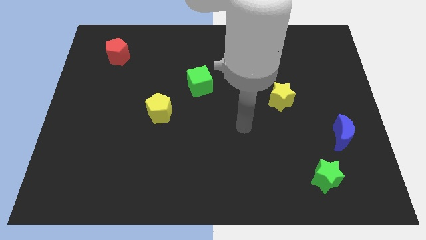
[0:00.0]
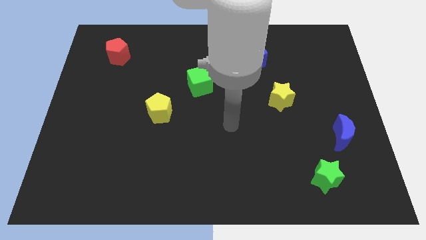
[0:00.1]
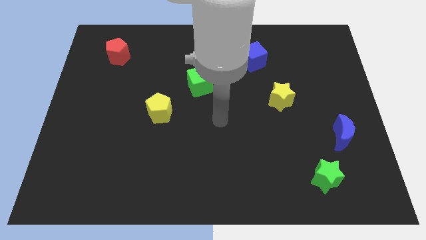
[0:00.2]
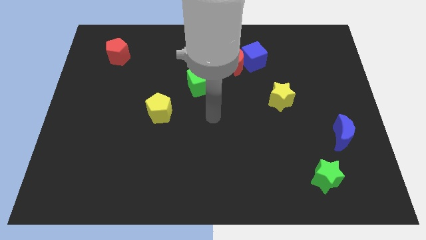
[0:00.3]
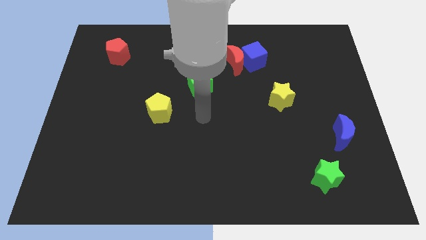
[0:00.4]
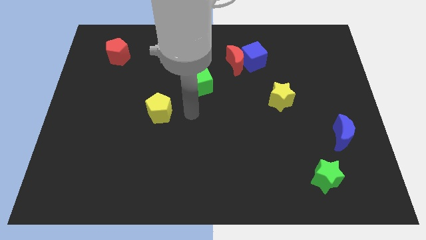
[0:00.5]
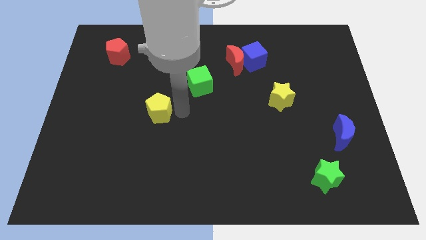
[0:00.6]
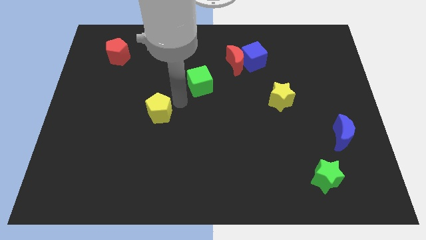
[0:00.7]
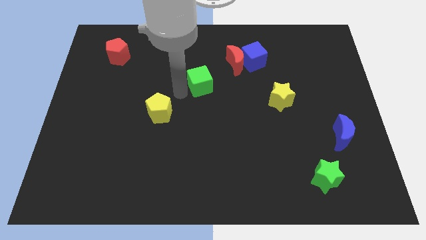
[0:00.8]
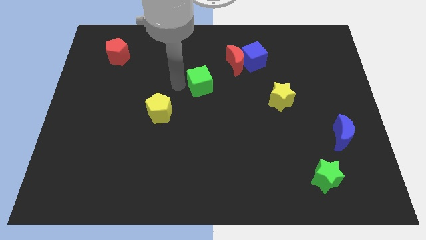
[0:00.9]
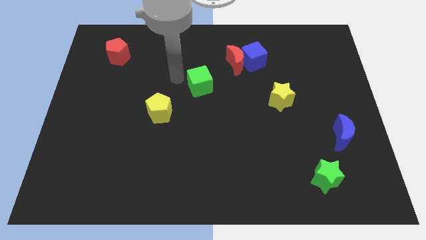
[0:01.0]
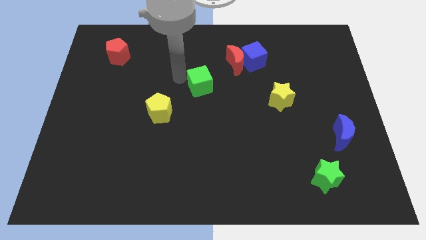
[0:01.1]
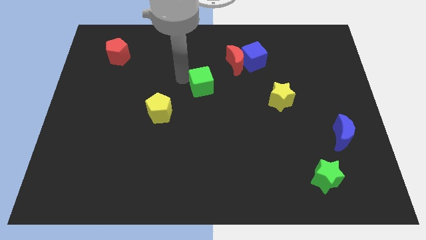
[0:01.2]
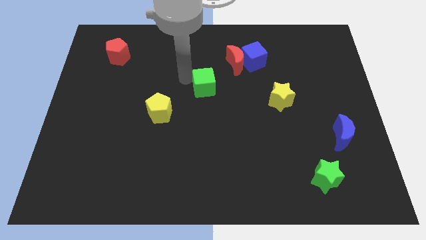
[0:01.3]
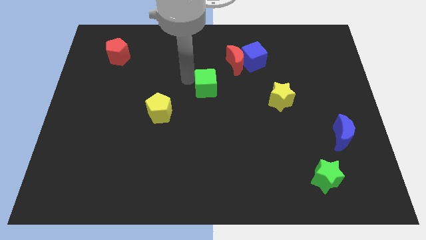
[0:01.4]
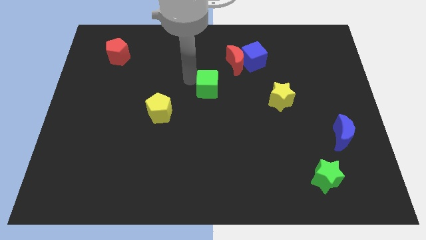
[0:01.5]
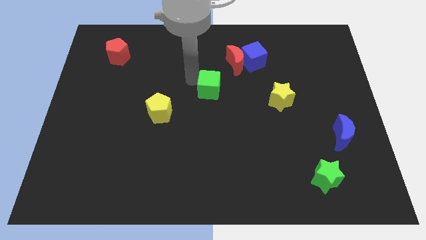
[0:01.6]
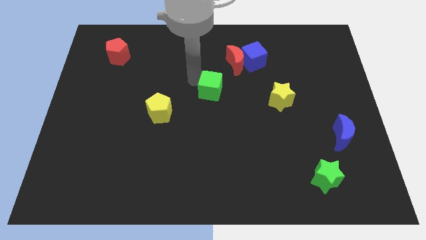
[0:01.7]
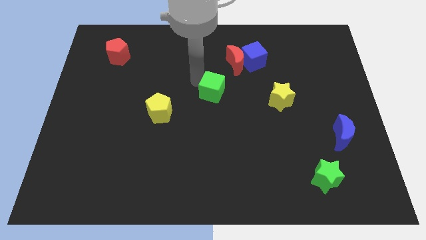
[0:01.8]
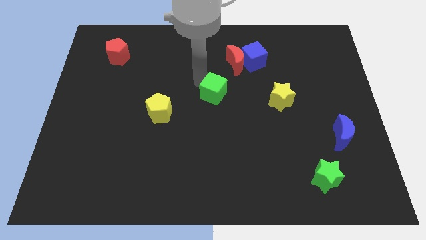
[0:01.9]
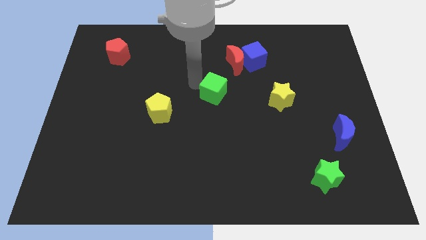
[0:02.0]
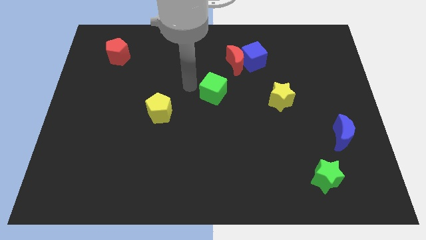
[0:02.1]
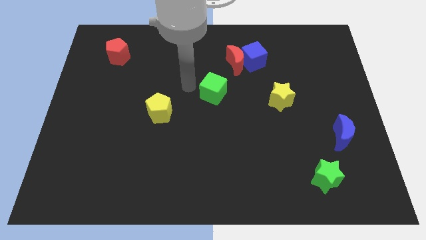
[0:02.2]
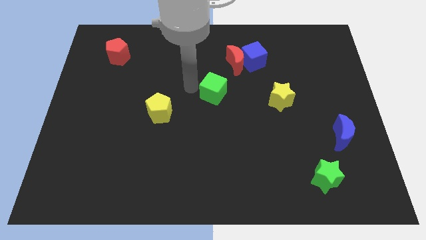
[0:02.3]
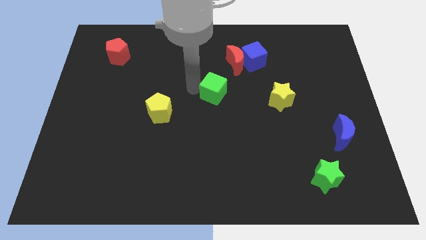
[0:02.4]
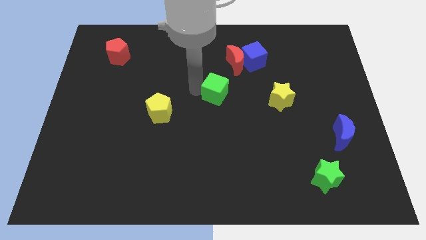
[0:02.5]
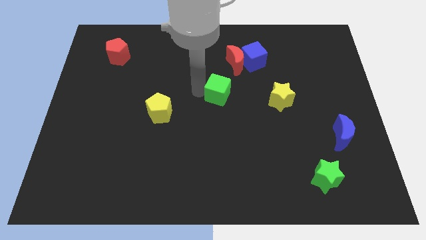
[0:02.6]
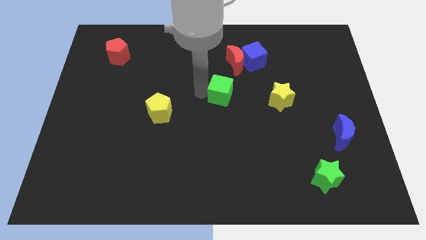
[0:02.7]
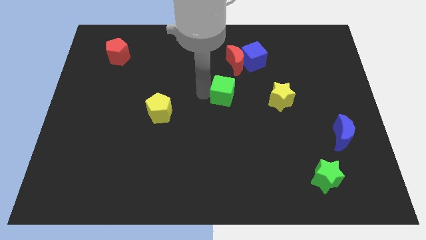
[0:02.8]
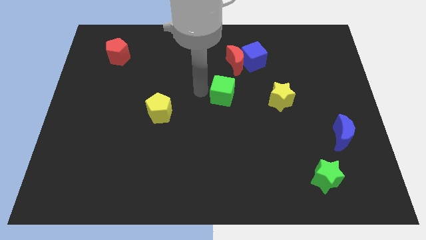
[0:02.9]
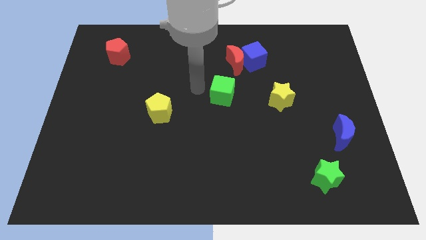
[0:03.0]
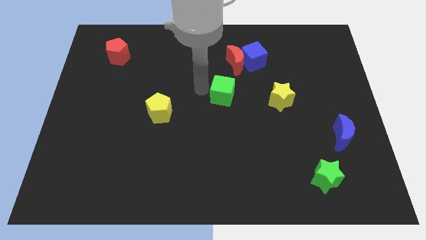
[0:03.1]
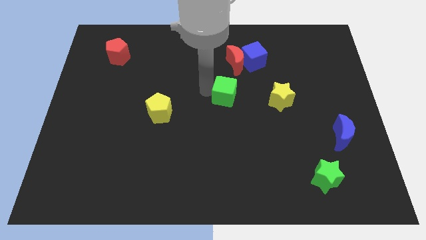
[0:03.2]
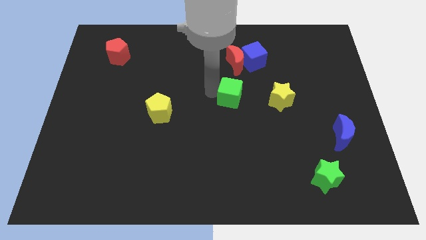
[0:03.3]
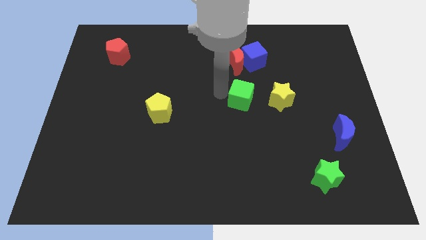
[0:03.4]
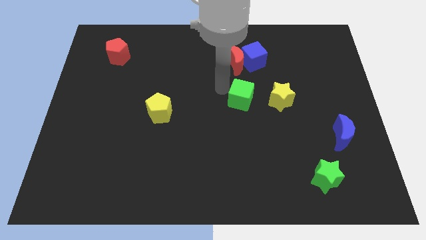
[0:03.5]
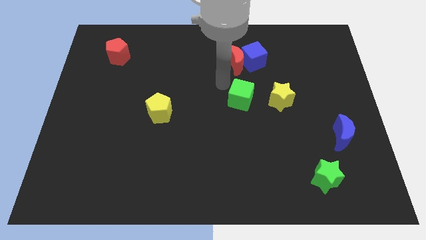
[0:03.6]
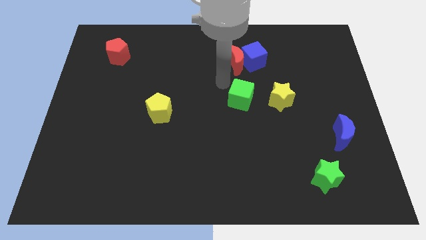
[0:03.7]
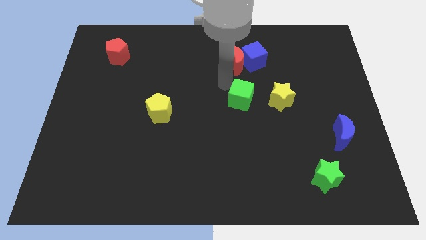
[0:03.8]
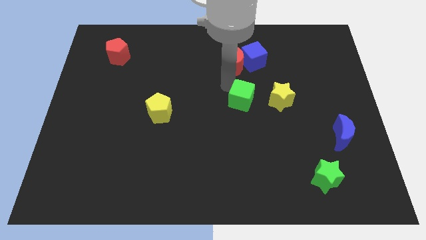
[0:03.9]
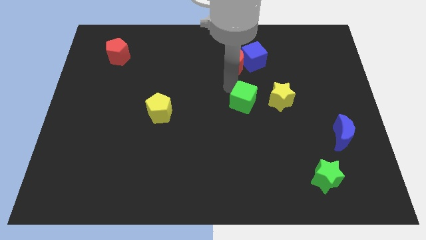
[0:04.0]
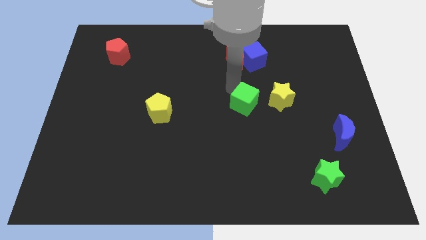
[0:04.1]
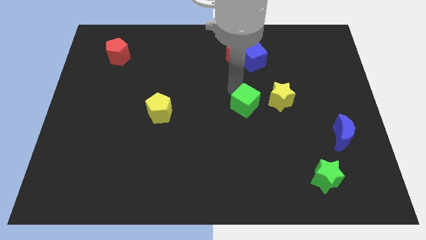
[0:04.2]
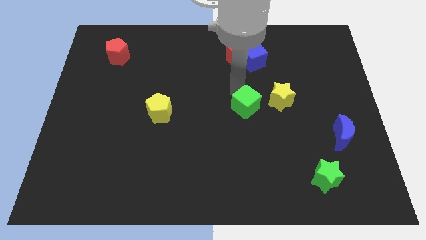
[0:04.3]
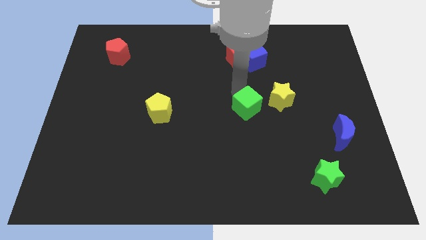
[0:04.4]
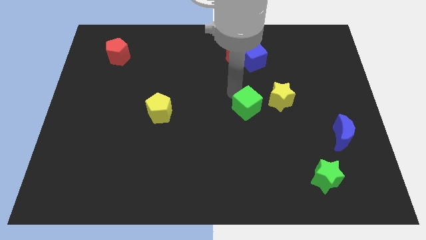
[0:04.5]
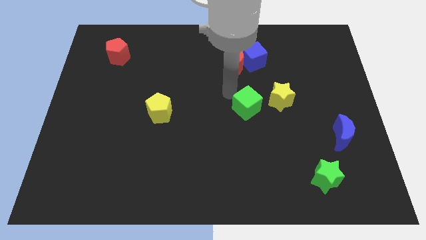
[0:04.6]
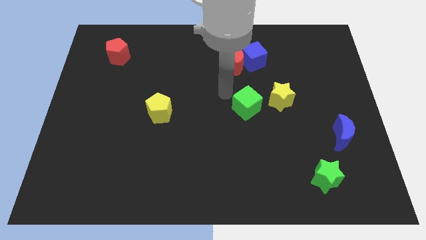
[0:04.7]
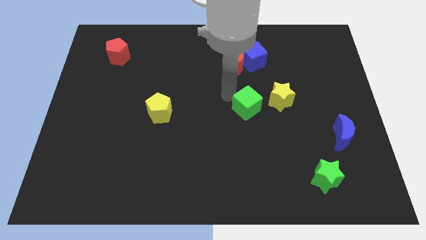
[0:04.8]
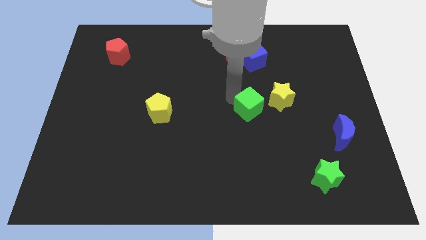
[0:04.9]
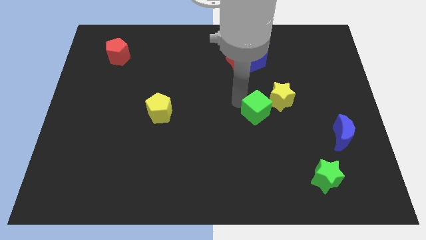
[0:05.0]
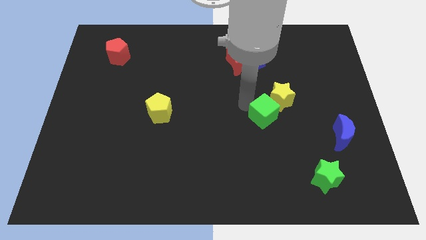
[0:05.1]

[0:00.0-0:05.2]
put the green cube to the bottom of the yellow star

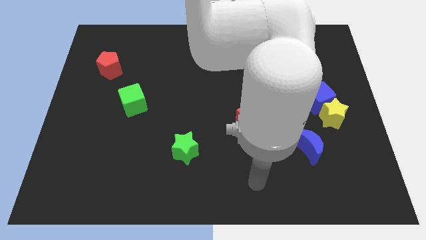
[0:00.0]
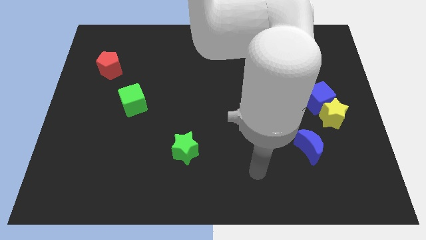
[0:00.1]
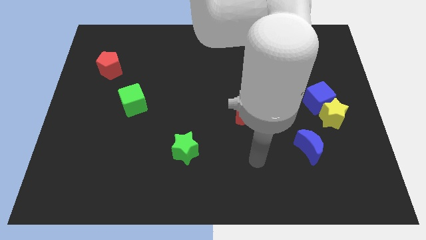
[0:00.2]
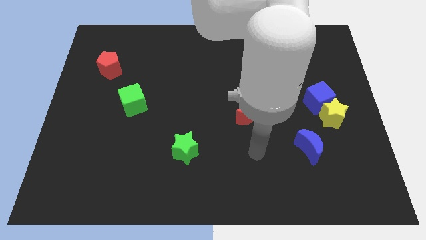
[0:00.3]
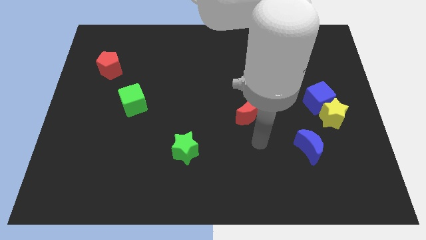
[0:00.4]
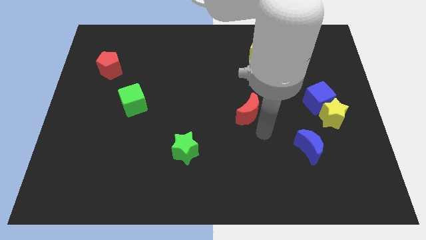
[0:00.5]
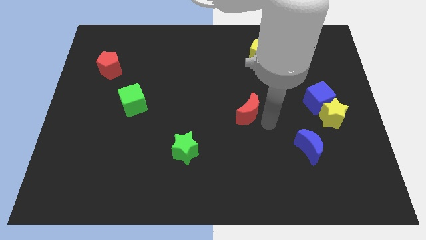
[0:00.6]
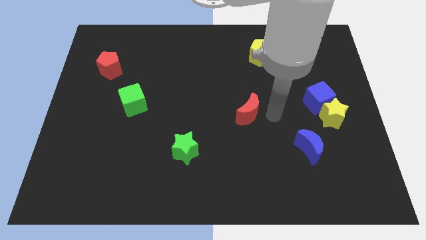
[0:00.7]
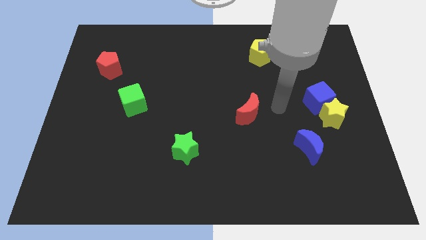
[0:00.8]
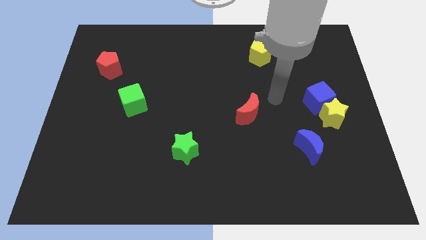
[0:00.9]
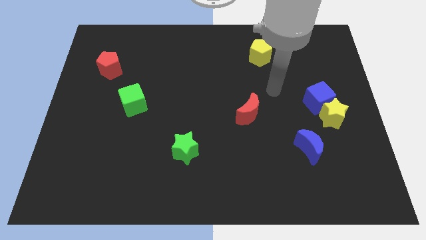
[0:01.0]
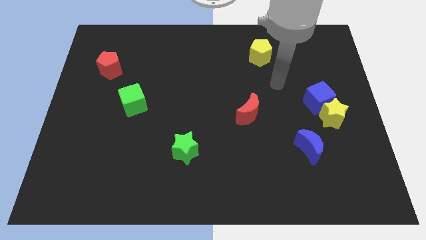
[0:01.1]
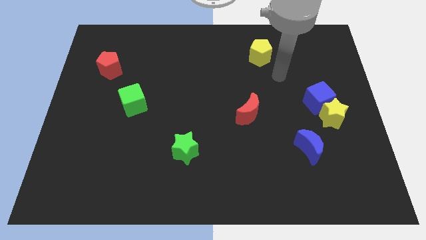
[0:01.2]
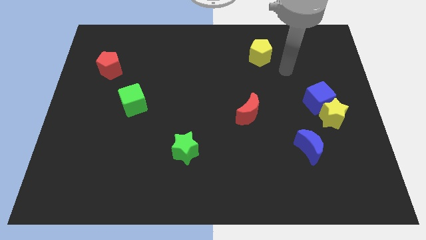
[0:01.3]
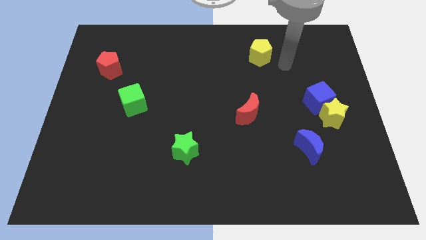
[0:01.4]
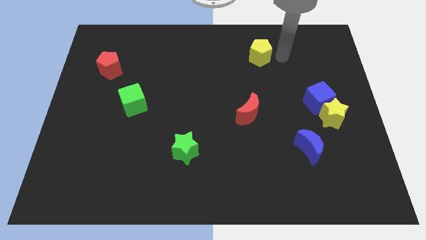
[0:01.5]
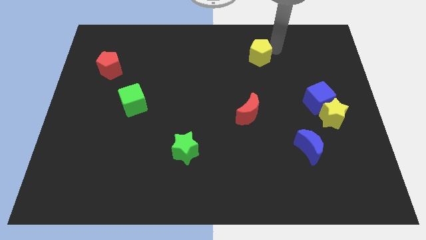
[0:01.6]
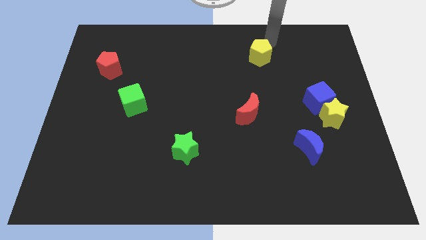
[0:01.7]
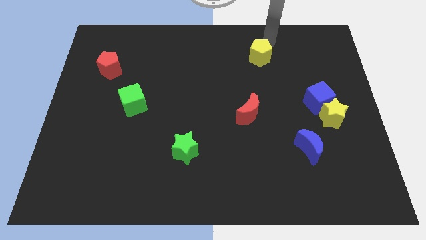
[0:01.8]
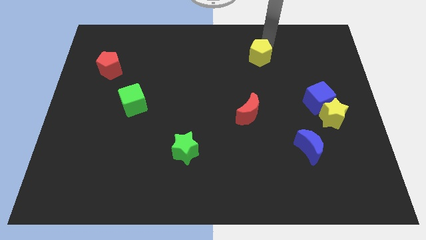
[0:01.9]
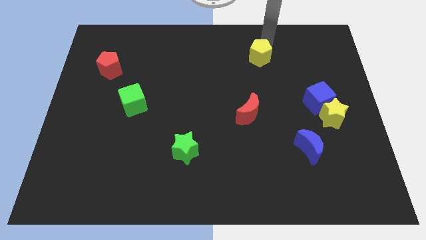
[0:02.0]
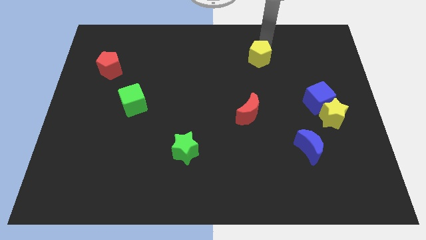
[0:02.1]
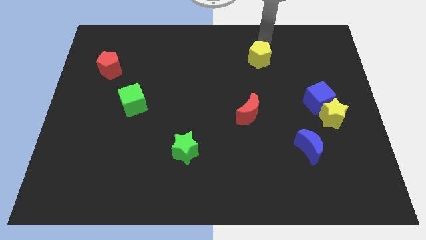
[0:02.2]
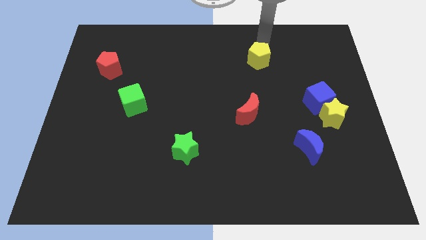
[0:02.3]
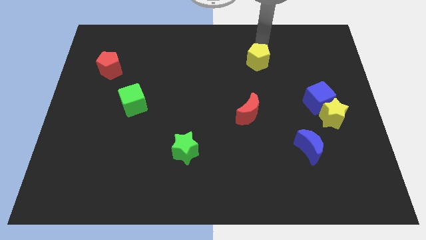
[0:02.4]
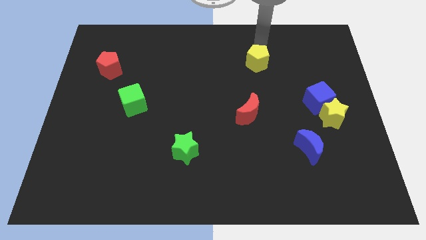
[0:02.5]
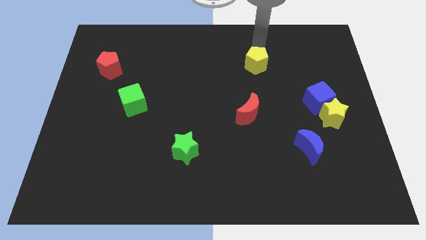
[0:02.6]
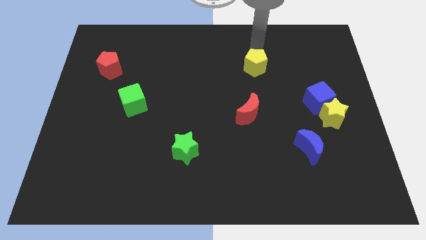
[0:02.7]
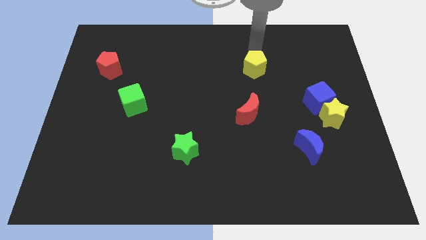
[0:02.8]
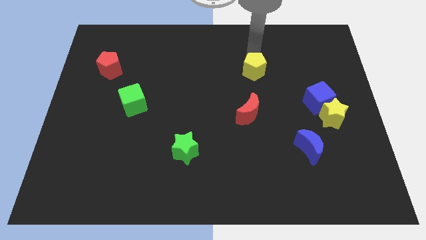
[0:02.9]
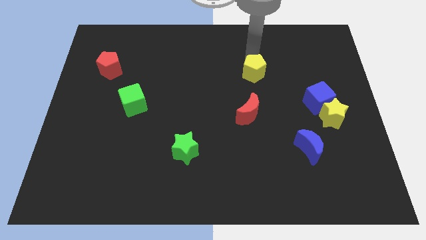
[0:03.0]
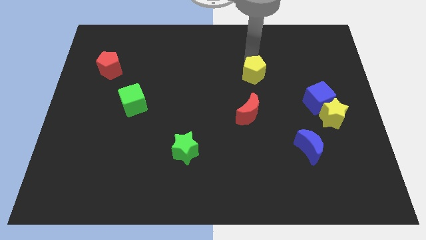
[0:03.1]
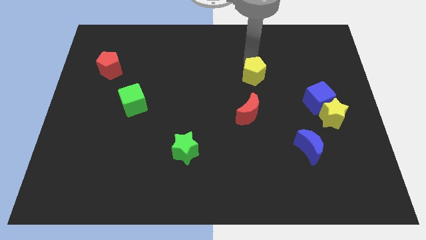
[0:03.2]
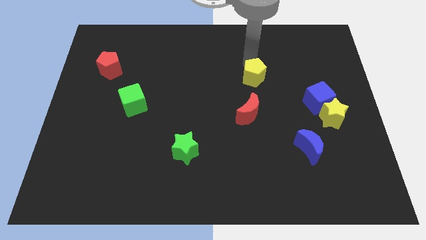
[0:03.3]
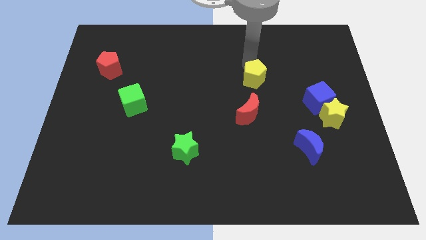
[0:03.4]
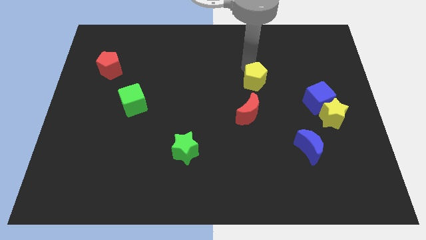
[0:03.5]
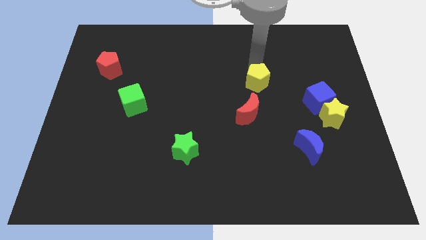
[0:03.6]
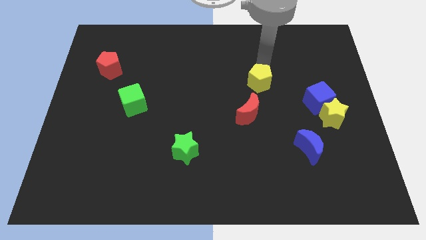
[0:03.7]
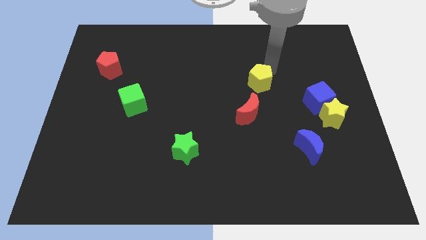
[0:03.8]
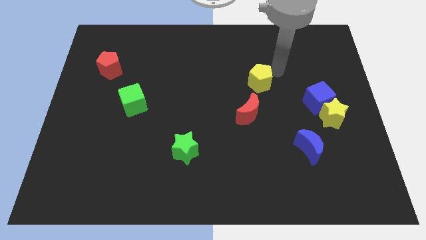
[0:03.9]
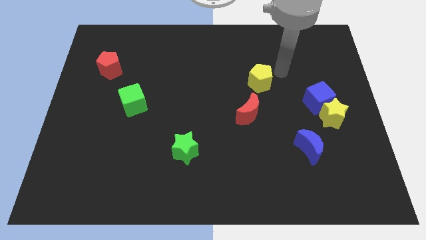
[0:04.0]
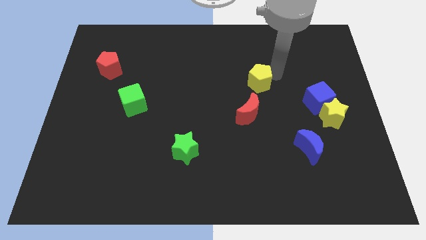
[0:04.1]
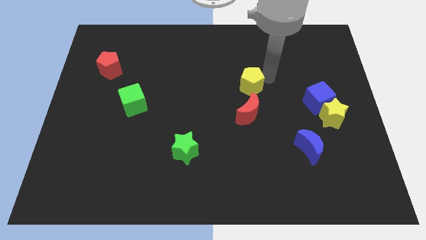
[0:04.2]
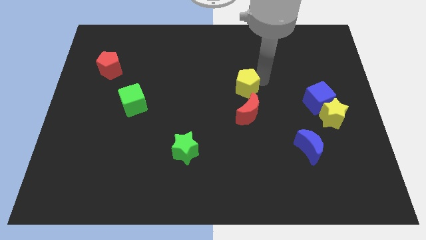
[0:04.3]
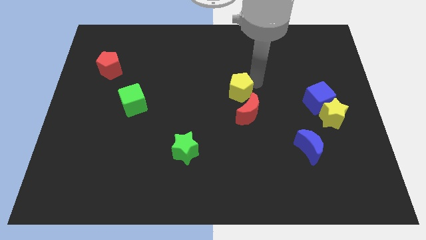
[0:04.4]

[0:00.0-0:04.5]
push the yellow pentagon to the top left side of the red moon
